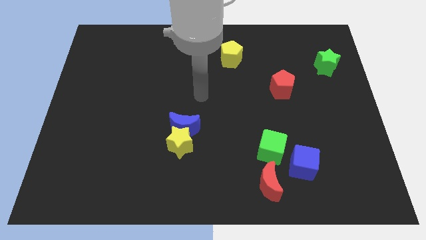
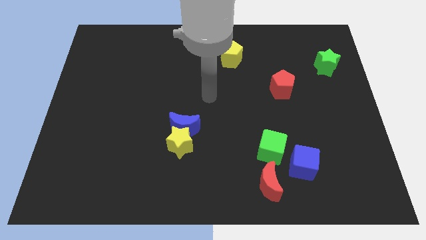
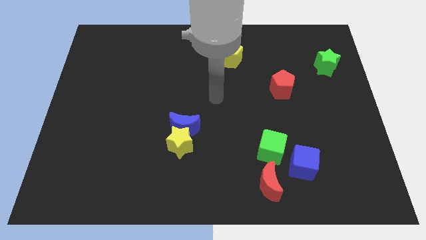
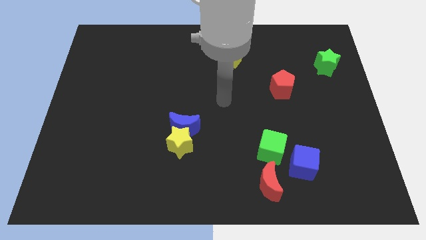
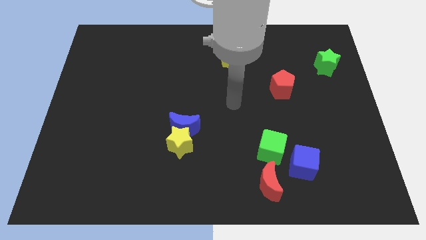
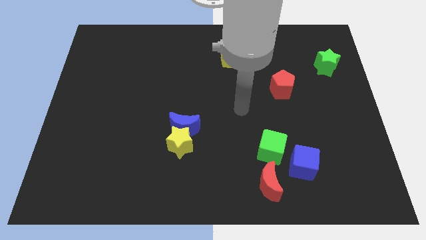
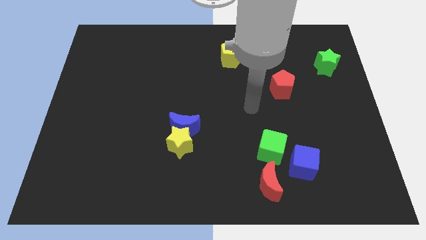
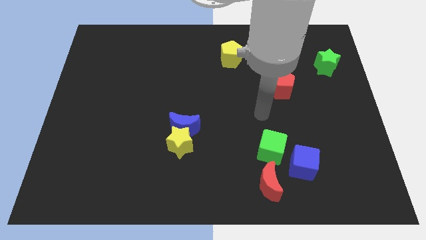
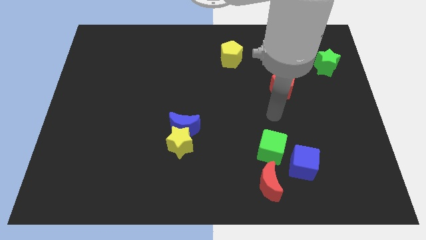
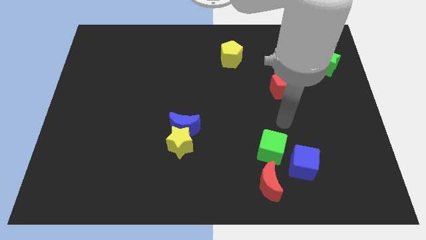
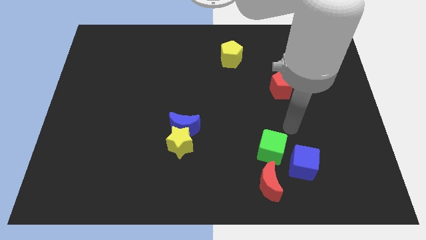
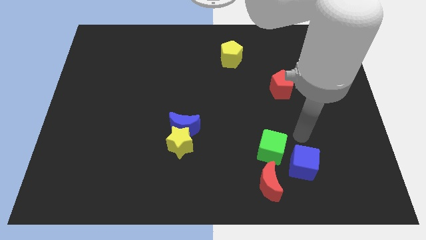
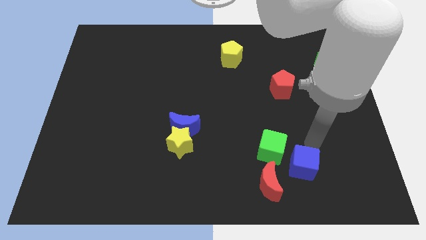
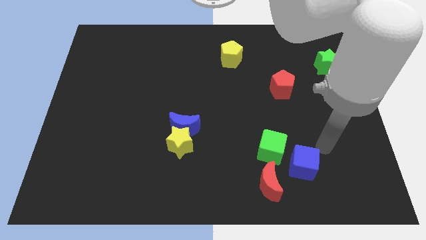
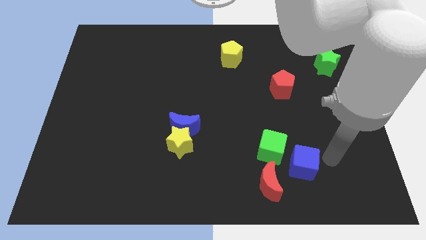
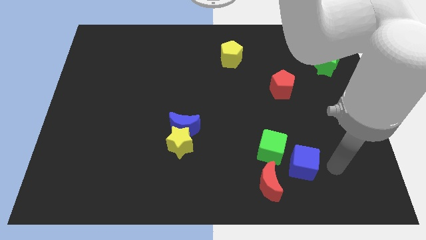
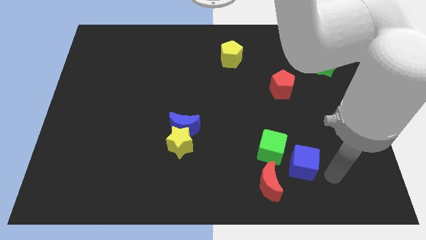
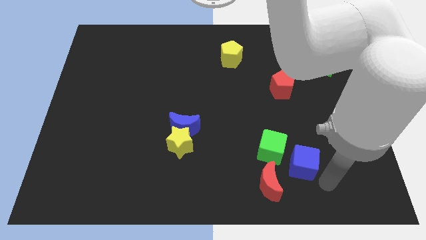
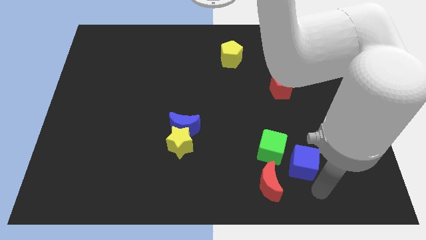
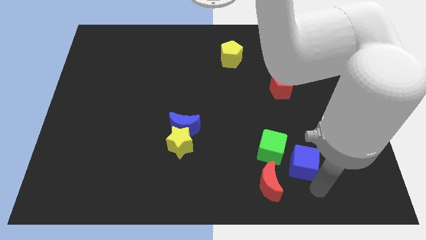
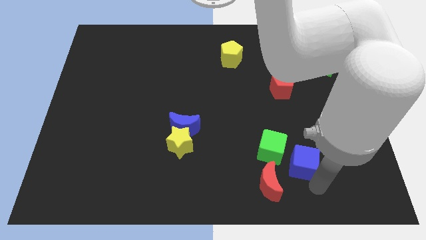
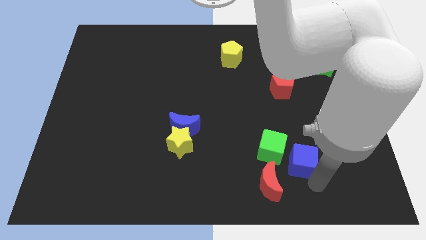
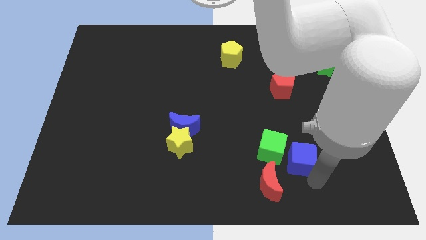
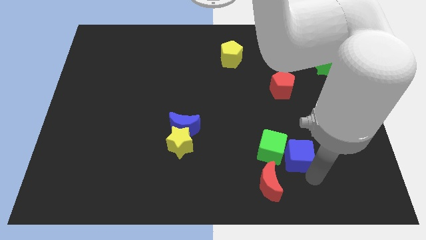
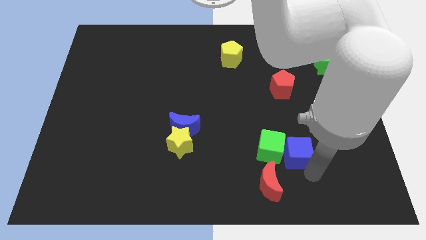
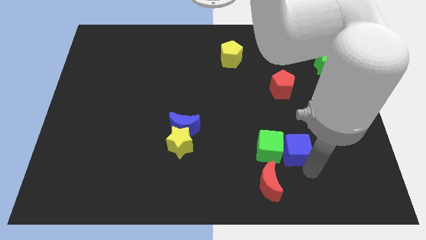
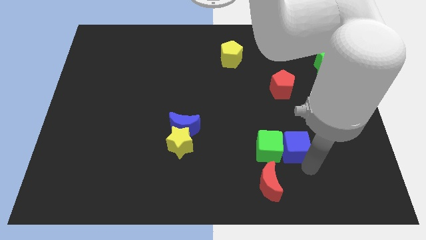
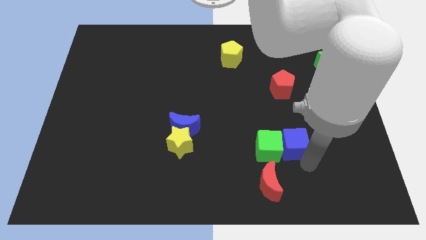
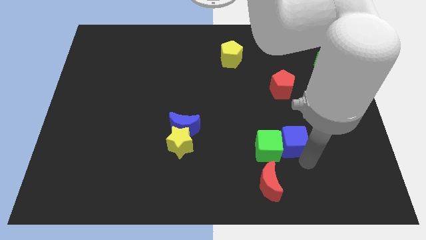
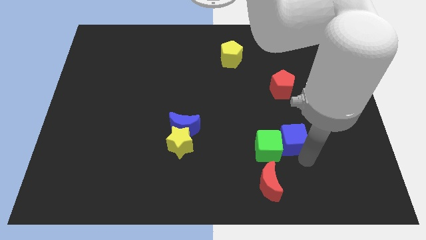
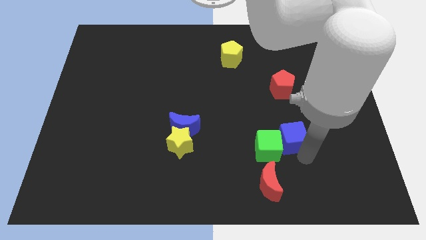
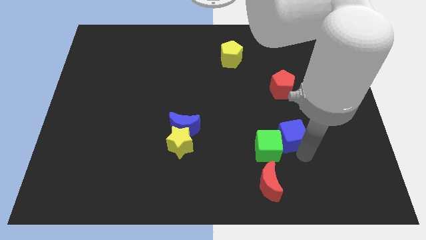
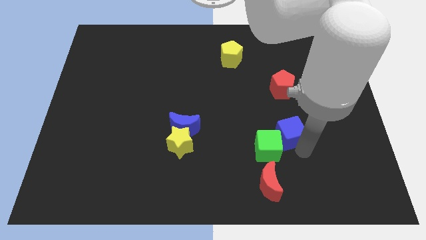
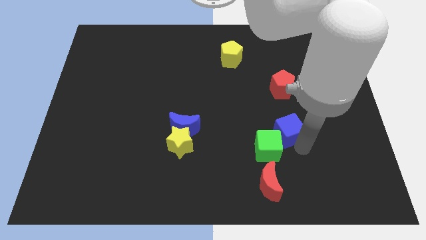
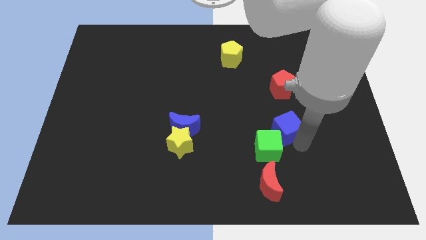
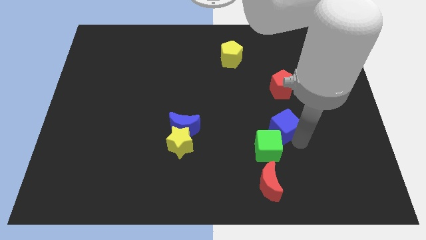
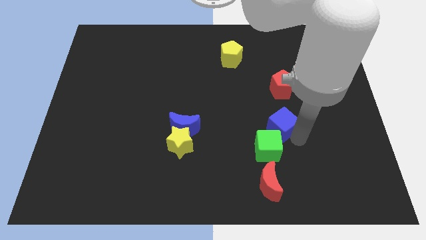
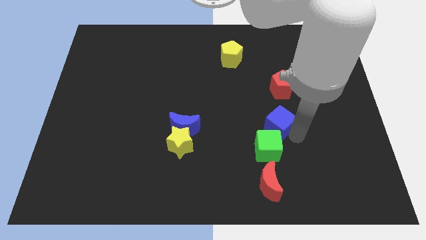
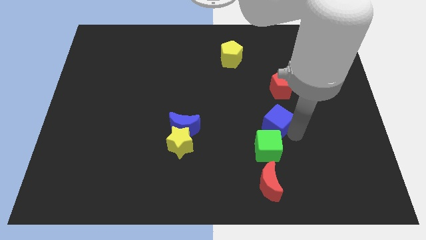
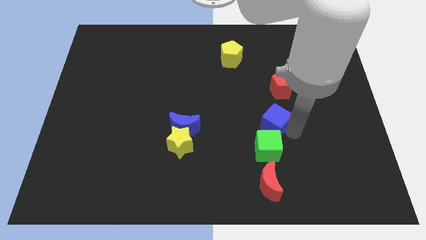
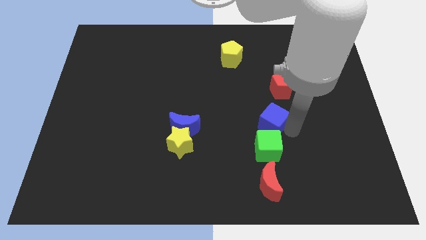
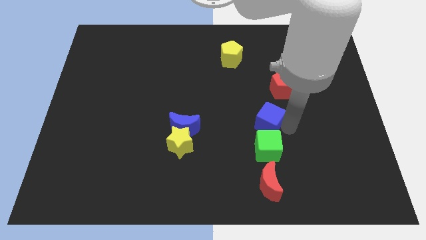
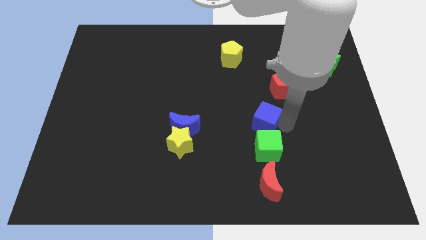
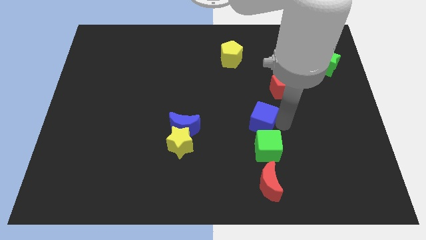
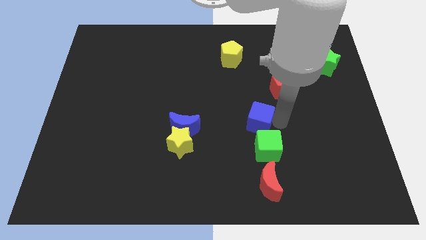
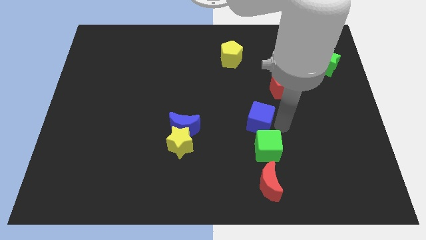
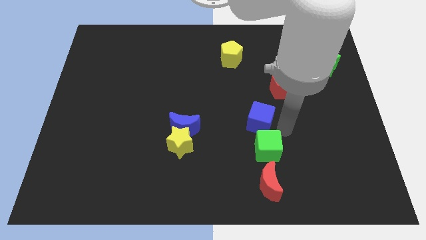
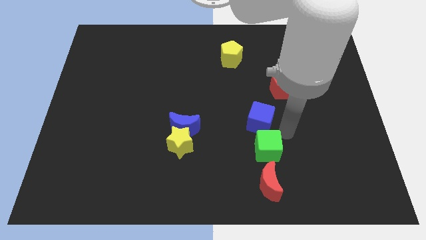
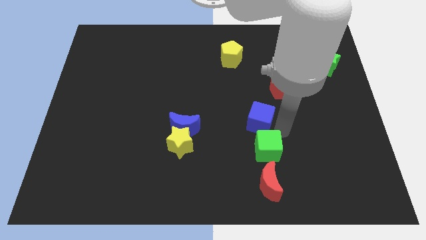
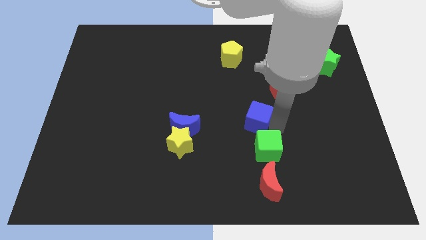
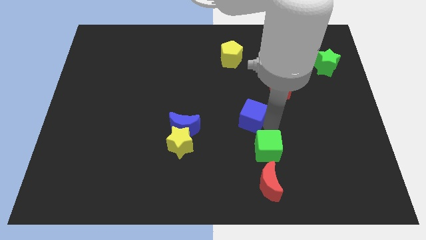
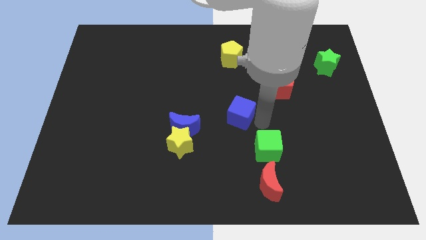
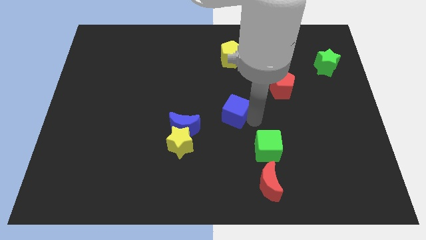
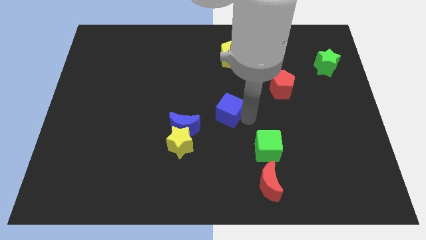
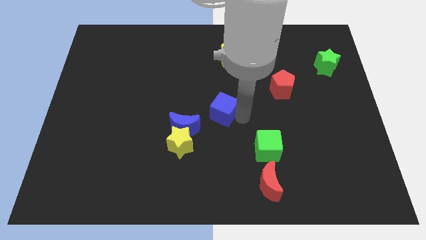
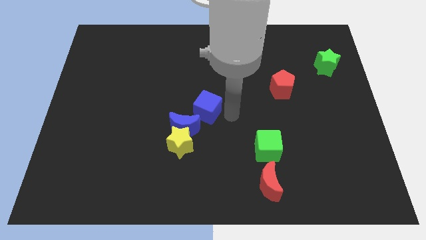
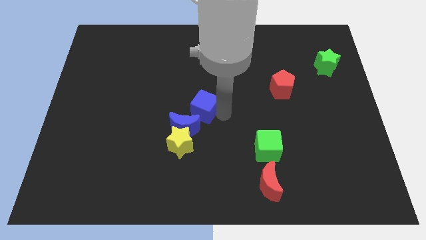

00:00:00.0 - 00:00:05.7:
move the blue cube to the top side of the blue moon

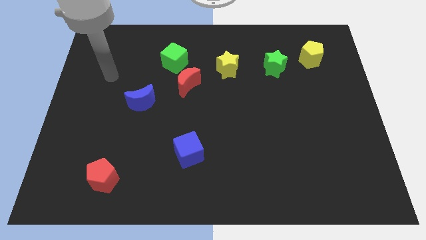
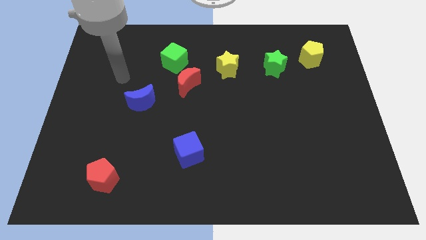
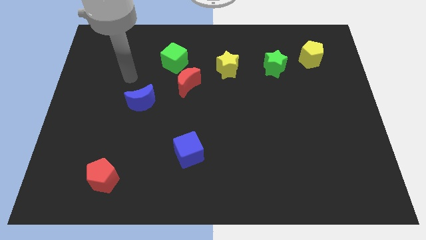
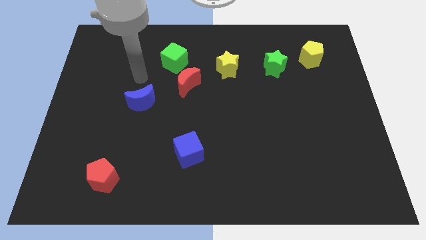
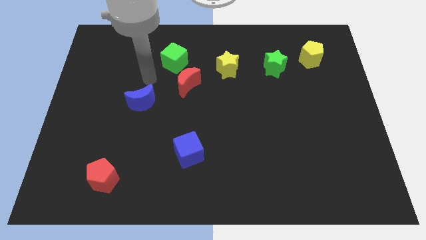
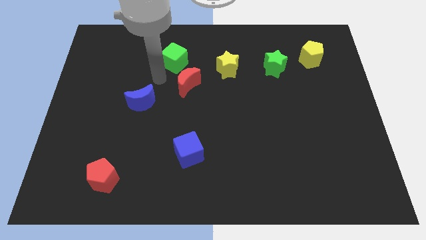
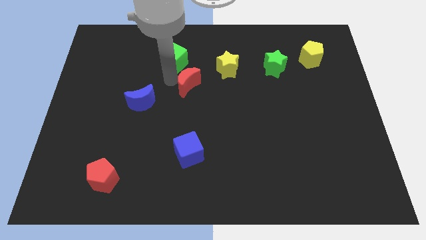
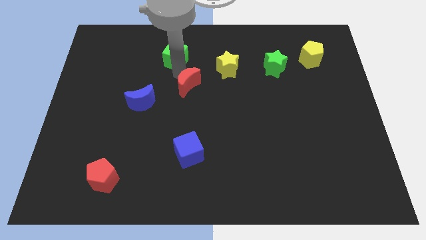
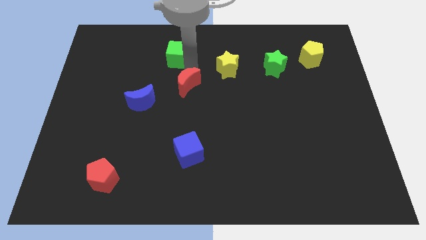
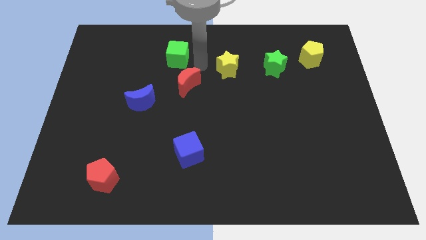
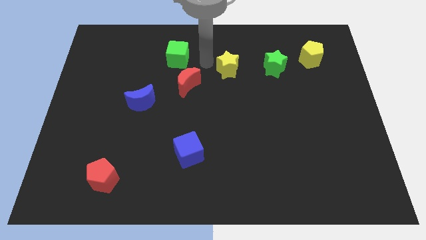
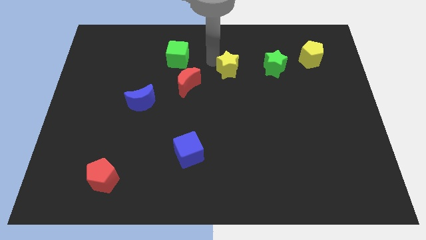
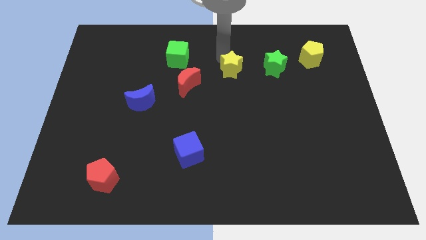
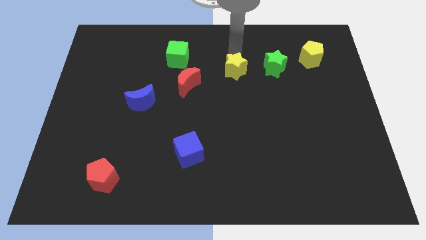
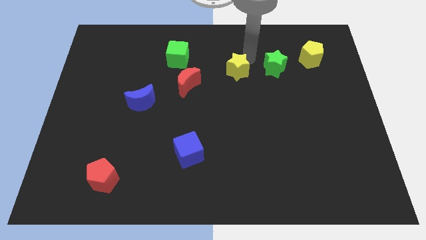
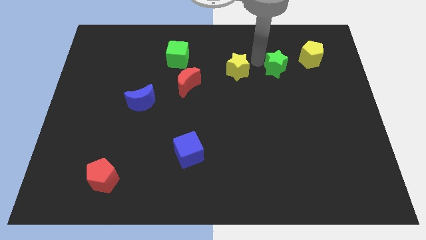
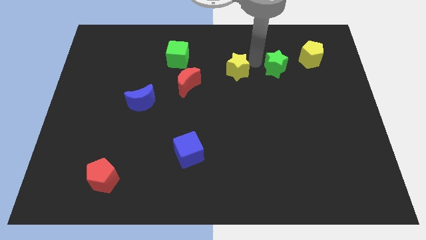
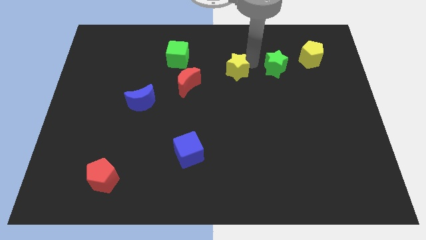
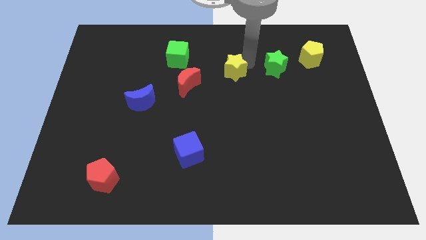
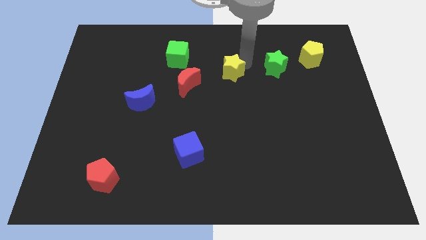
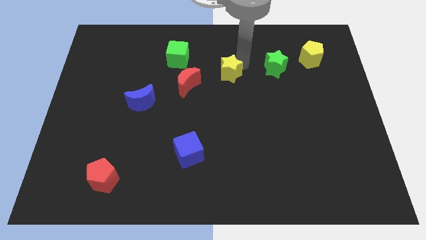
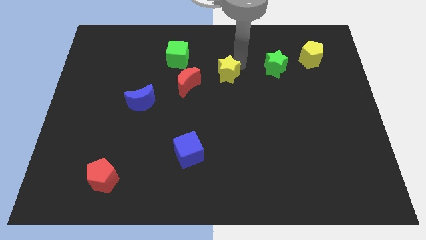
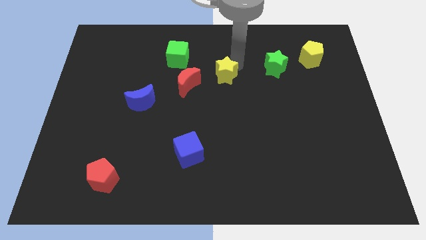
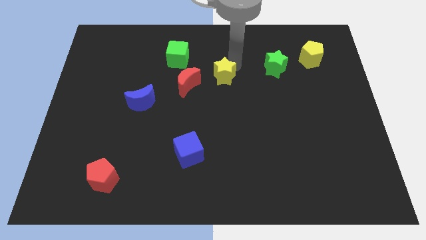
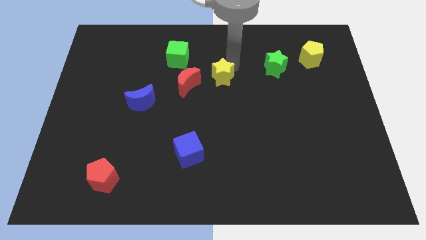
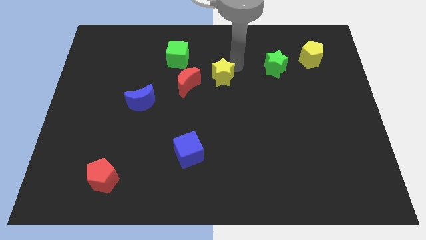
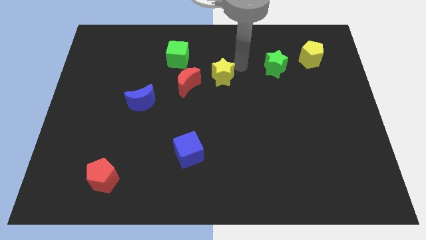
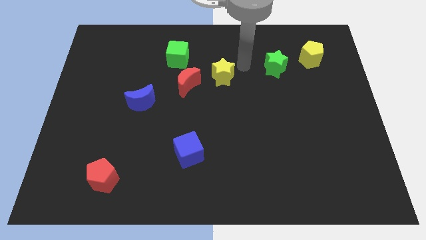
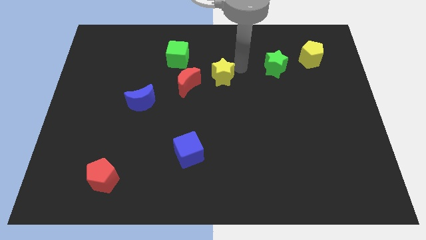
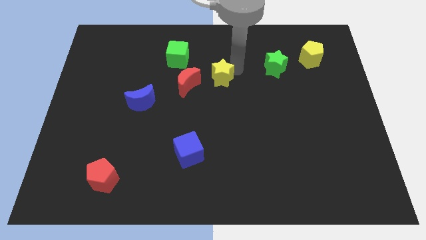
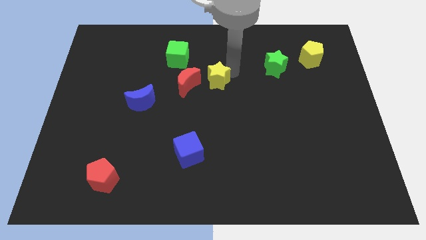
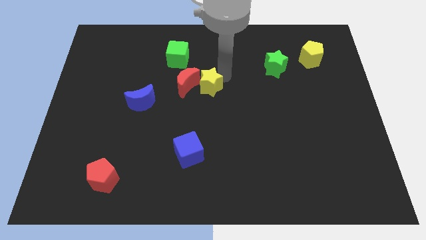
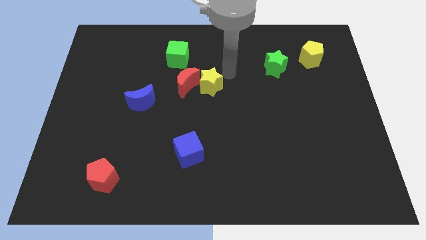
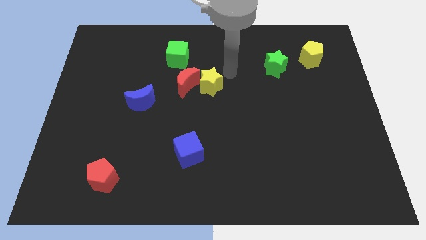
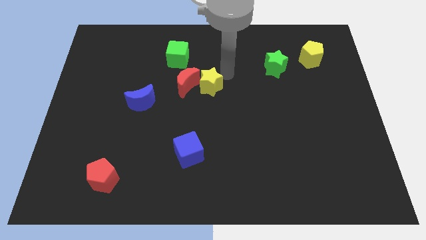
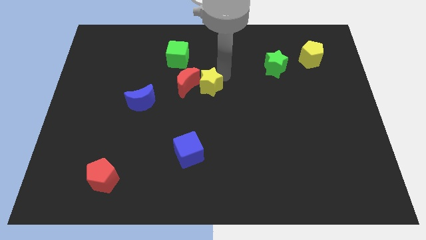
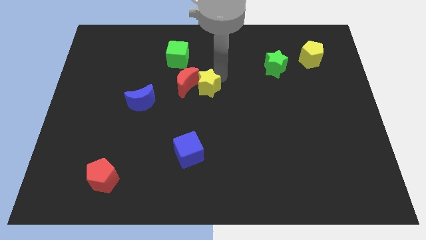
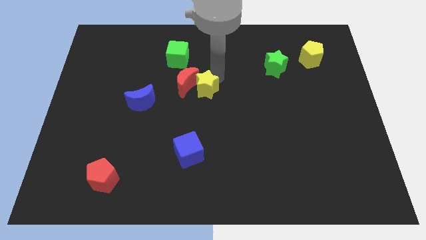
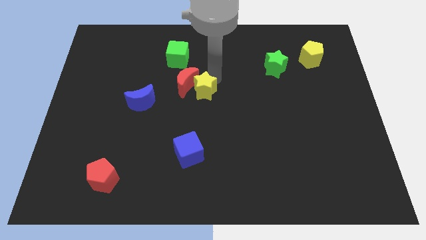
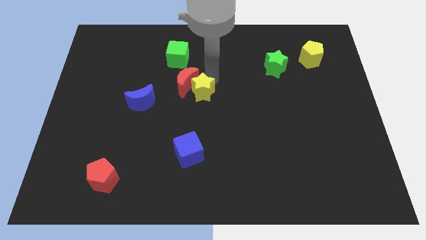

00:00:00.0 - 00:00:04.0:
slide the yellow star to the right of the blue moon
